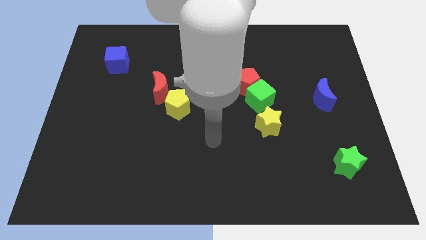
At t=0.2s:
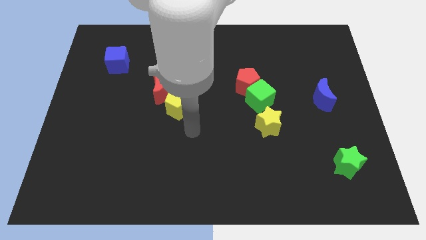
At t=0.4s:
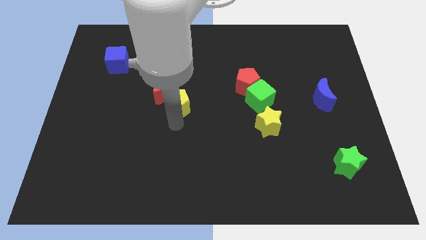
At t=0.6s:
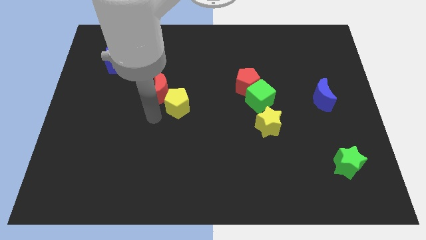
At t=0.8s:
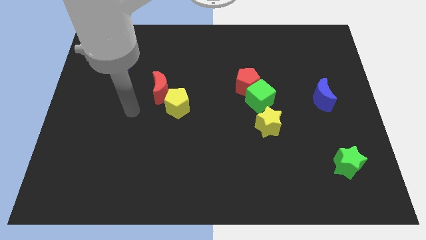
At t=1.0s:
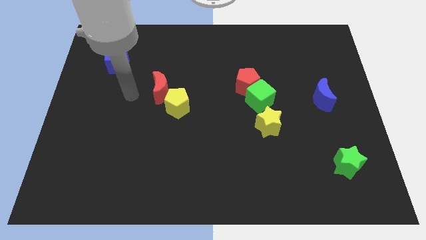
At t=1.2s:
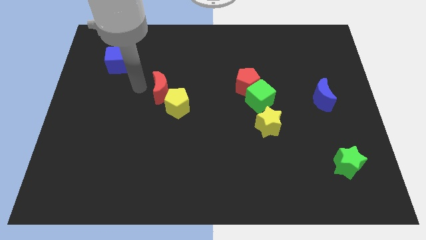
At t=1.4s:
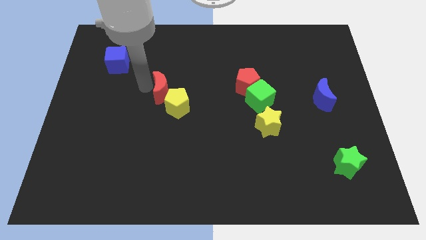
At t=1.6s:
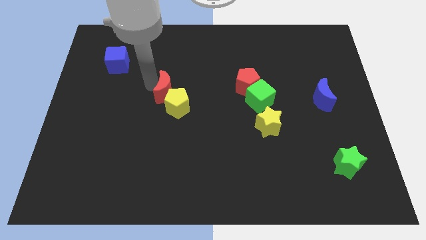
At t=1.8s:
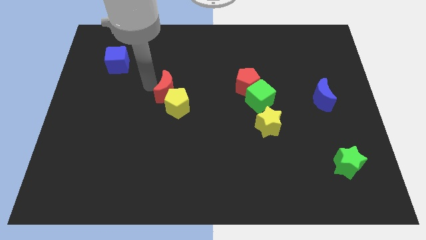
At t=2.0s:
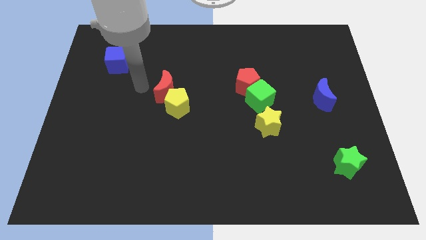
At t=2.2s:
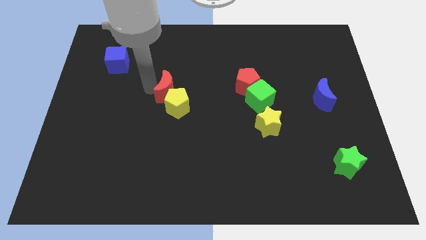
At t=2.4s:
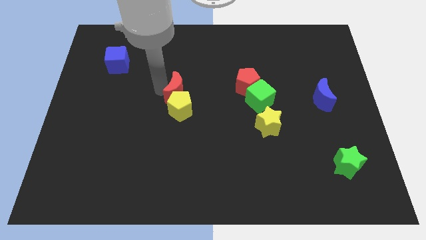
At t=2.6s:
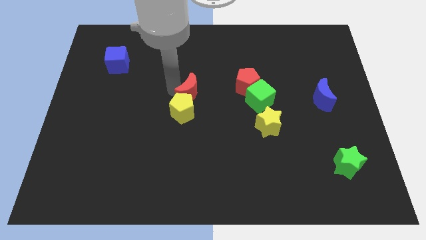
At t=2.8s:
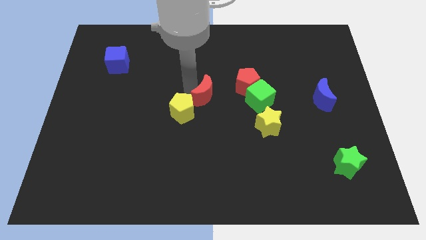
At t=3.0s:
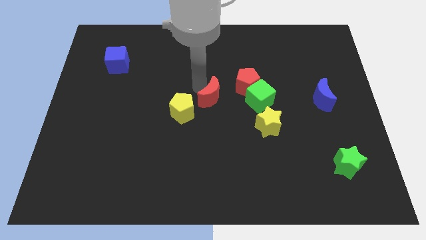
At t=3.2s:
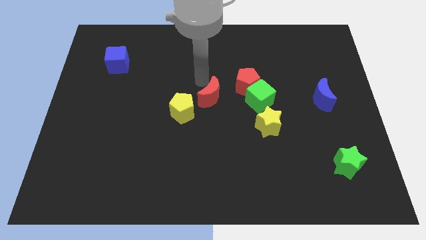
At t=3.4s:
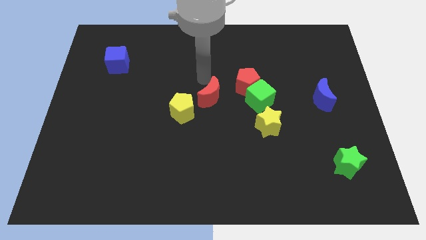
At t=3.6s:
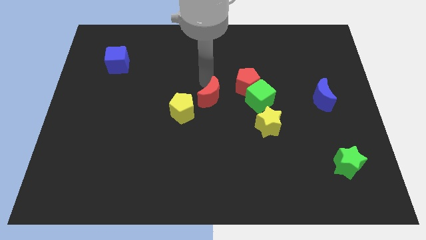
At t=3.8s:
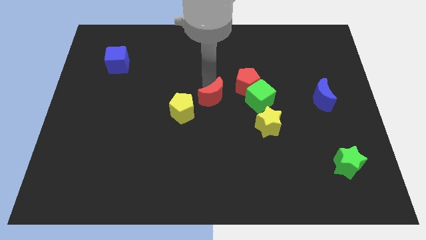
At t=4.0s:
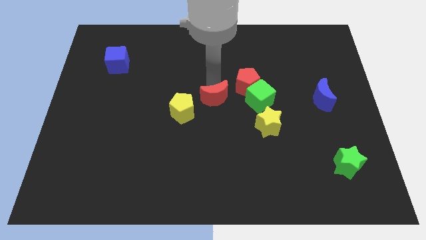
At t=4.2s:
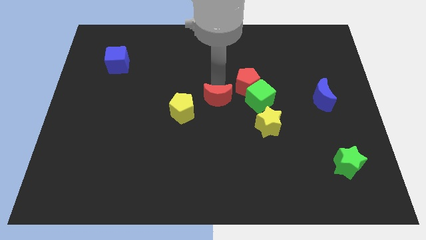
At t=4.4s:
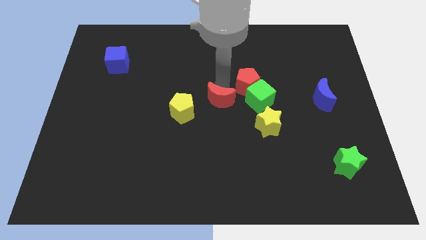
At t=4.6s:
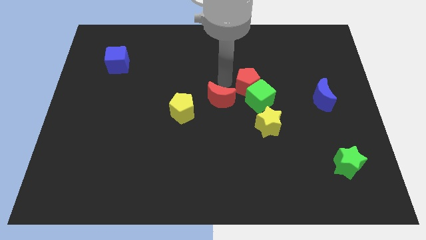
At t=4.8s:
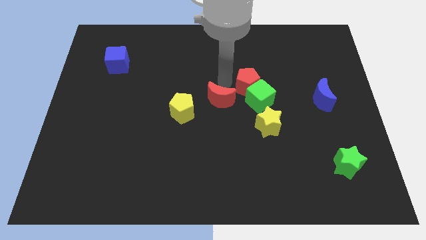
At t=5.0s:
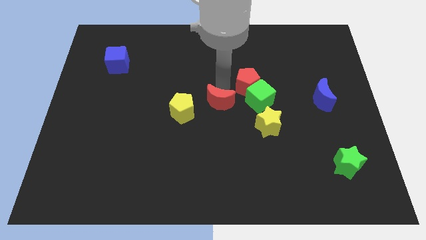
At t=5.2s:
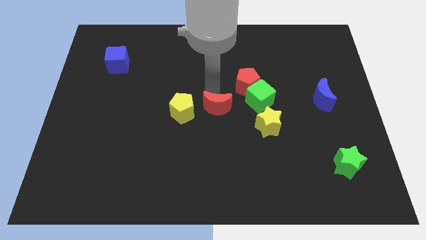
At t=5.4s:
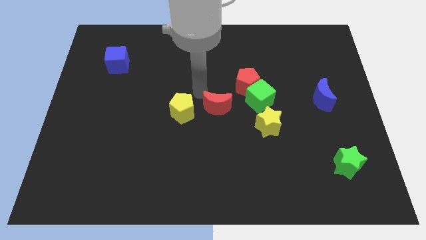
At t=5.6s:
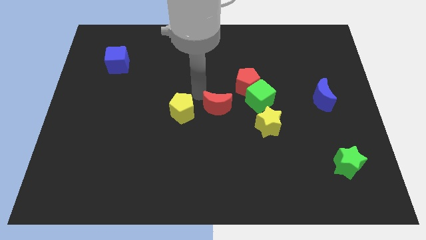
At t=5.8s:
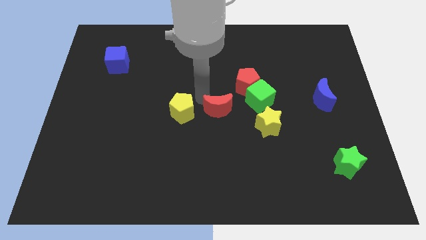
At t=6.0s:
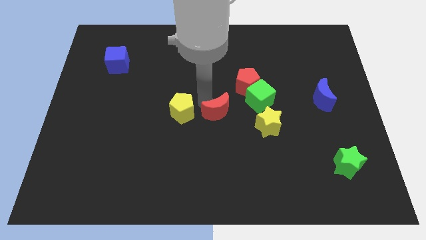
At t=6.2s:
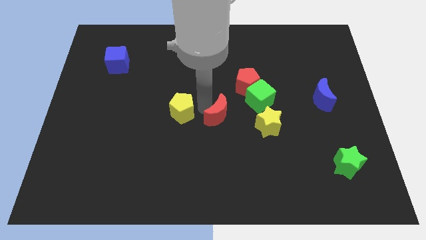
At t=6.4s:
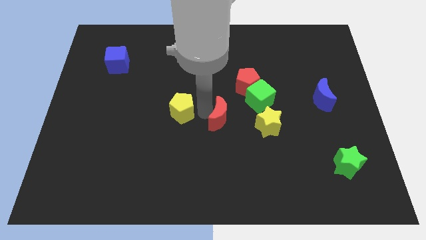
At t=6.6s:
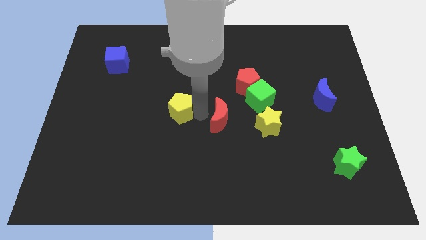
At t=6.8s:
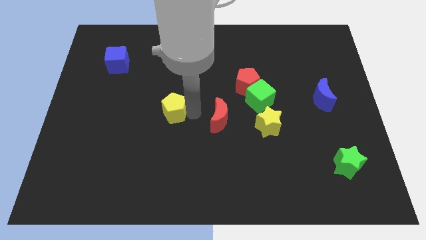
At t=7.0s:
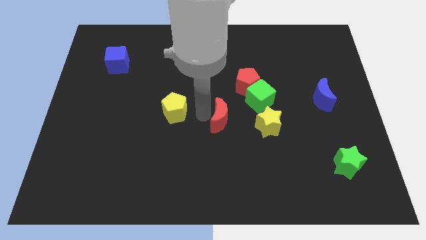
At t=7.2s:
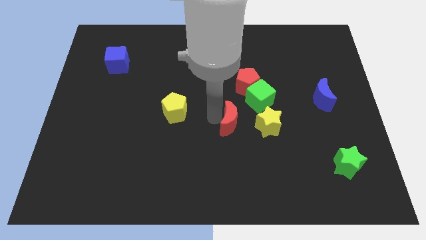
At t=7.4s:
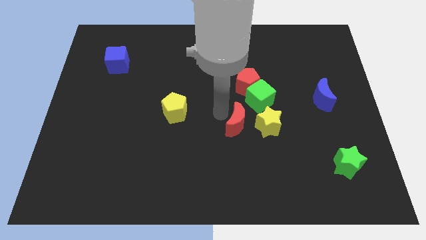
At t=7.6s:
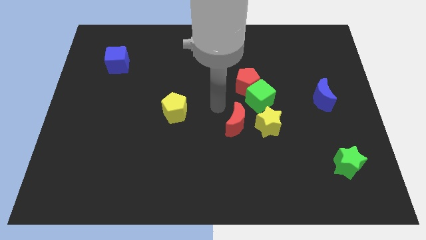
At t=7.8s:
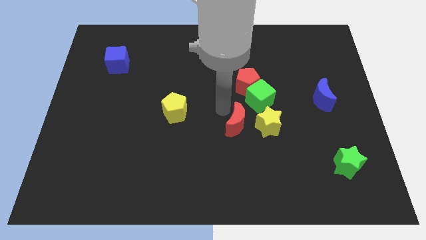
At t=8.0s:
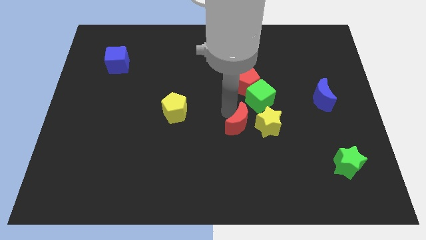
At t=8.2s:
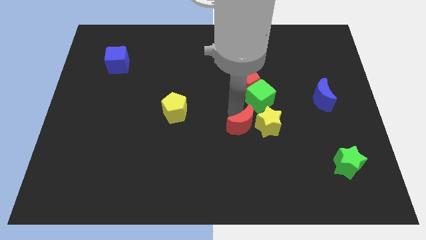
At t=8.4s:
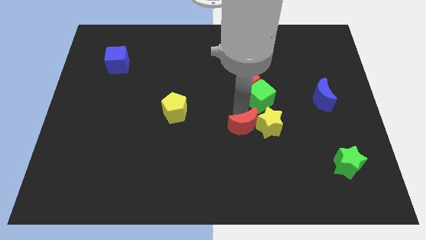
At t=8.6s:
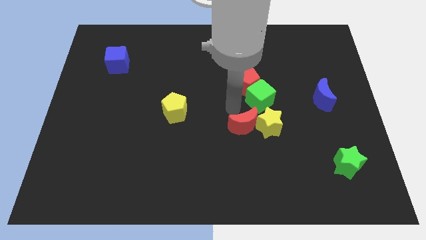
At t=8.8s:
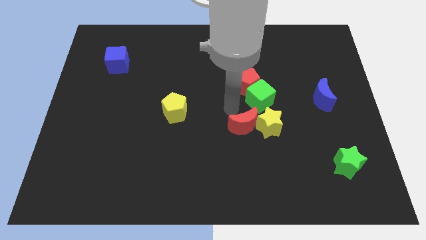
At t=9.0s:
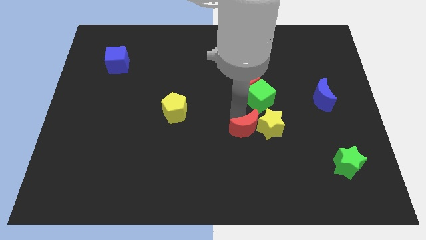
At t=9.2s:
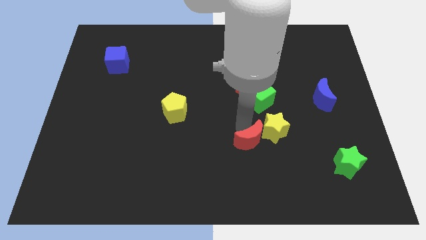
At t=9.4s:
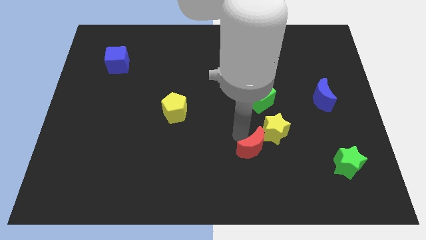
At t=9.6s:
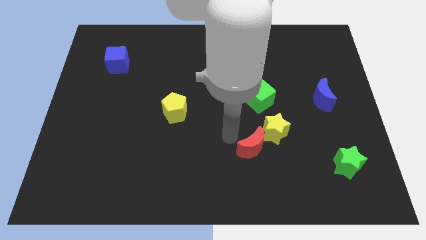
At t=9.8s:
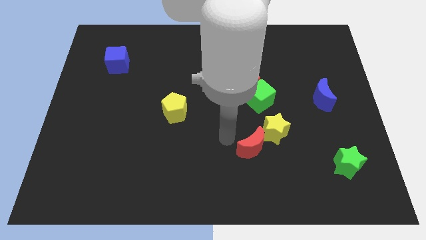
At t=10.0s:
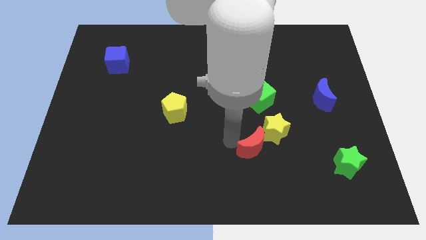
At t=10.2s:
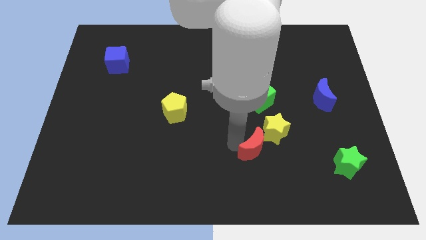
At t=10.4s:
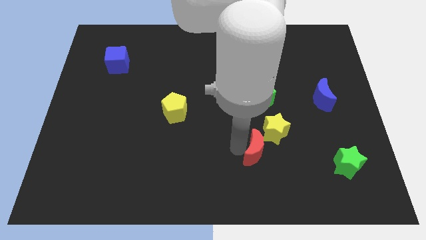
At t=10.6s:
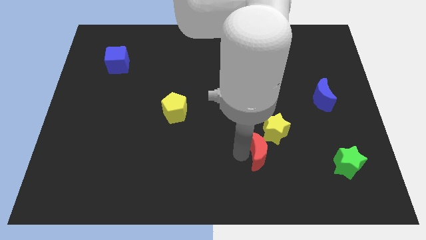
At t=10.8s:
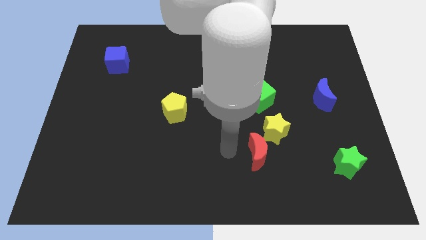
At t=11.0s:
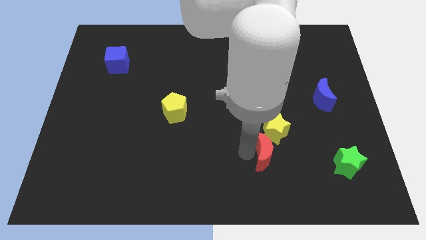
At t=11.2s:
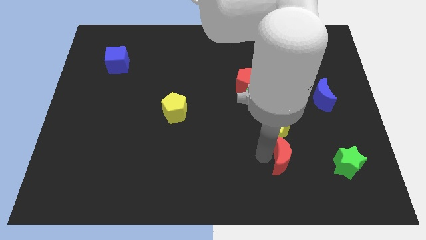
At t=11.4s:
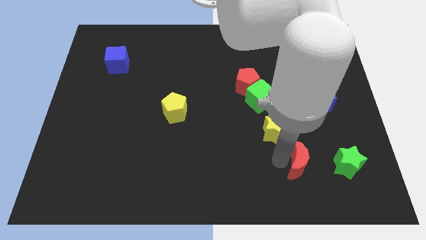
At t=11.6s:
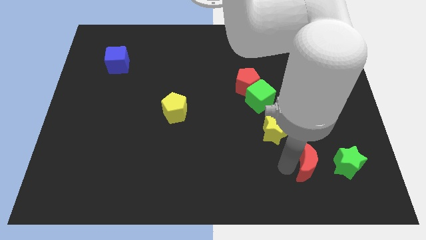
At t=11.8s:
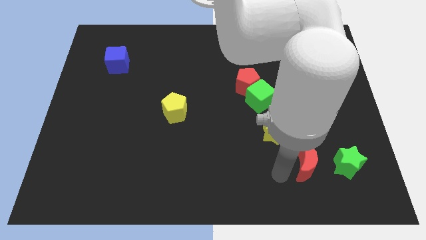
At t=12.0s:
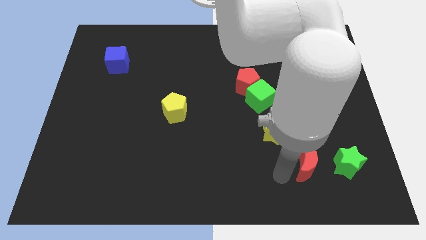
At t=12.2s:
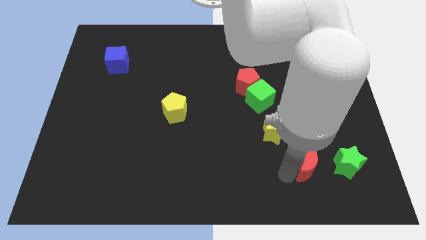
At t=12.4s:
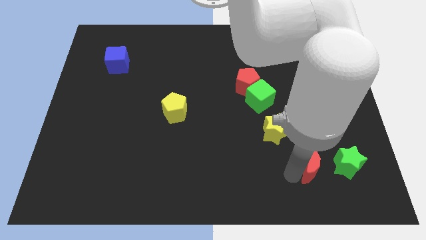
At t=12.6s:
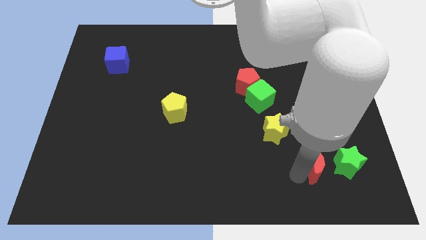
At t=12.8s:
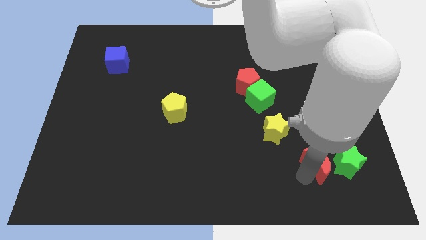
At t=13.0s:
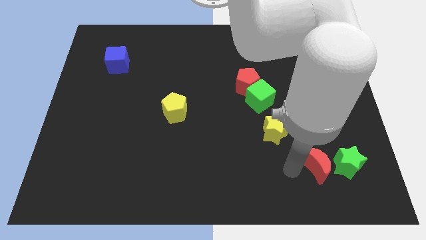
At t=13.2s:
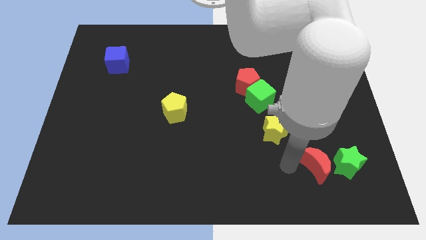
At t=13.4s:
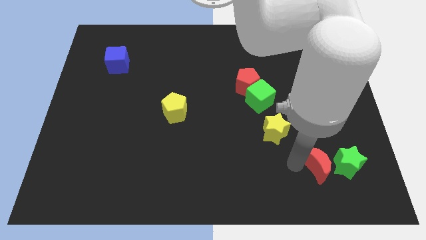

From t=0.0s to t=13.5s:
push the red moon close to the green star

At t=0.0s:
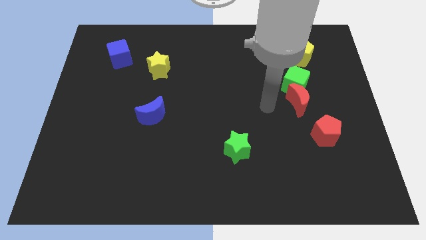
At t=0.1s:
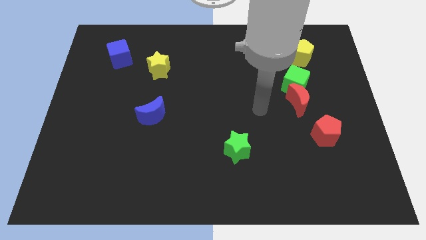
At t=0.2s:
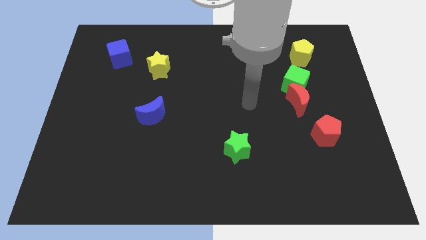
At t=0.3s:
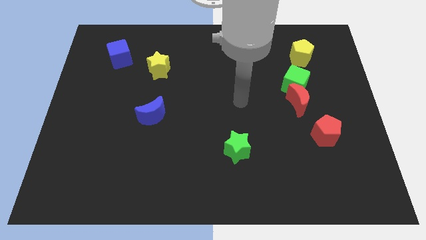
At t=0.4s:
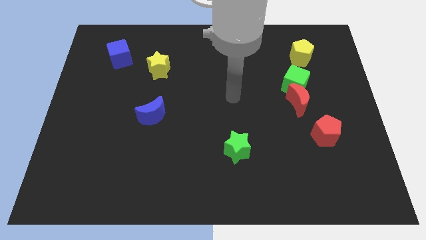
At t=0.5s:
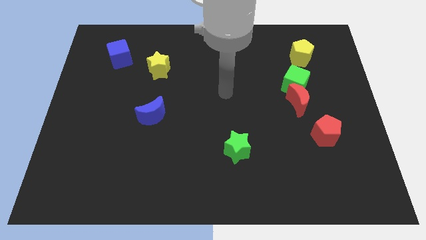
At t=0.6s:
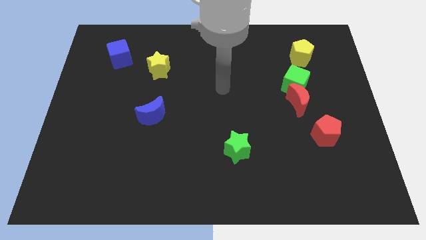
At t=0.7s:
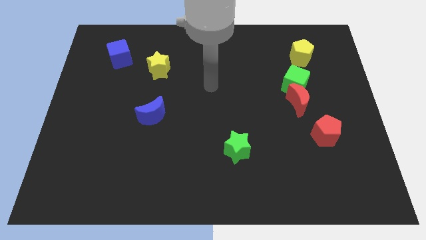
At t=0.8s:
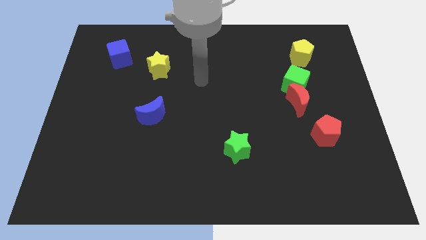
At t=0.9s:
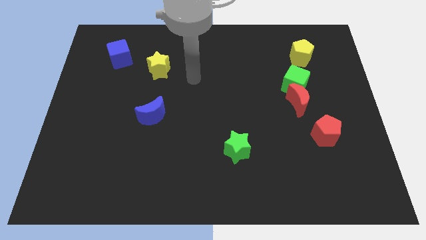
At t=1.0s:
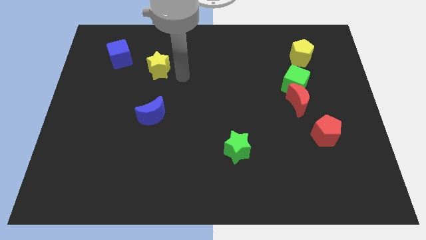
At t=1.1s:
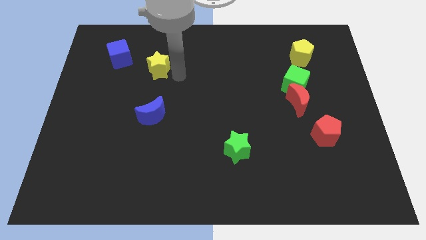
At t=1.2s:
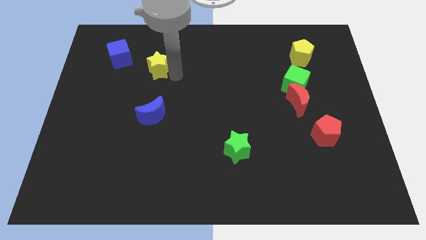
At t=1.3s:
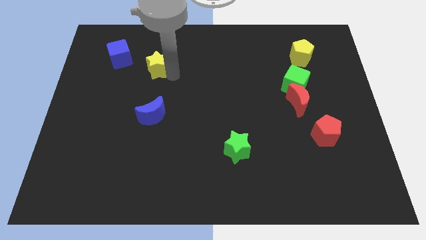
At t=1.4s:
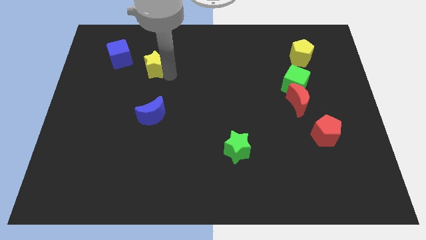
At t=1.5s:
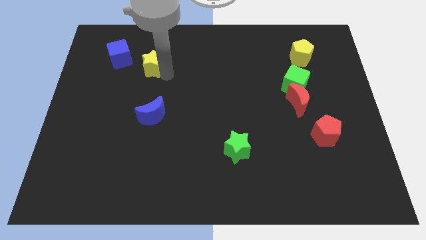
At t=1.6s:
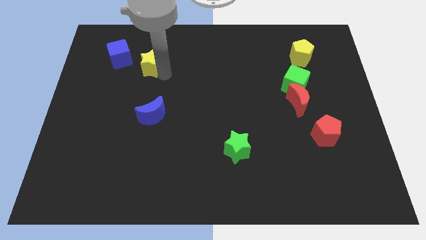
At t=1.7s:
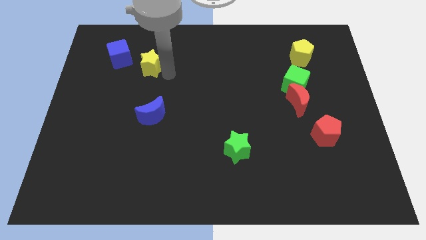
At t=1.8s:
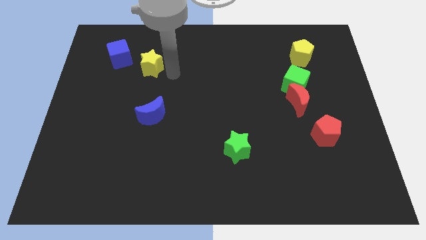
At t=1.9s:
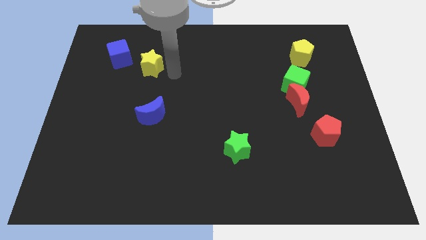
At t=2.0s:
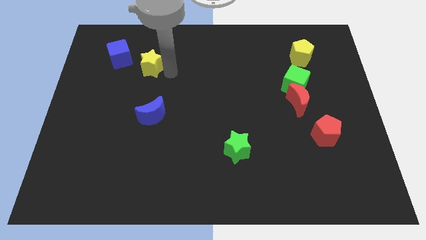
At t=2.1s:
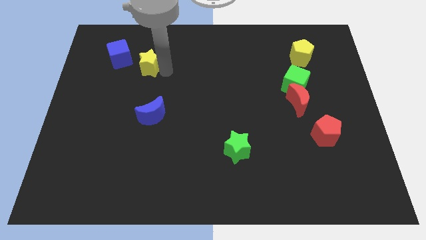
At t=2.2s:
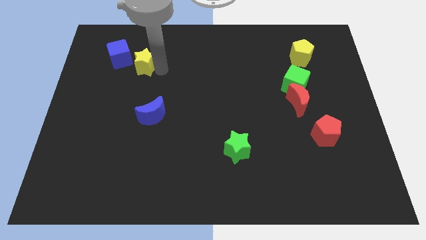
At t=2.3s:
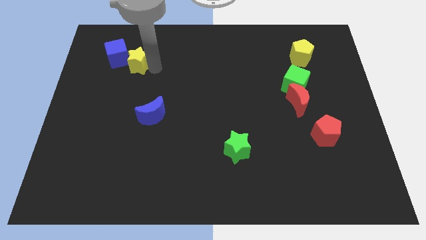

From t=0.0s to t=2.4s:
put the yellow star towards the blue cube
